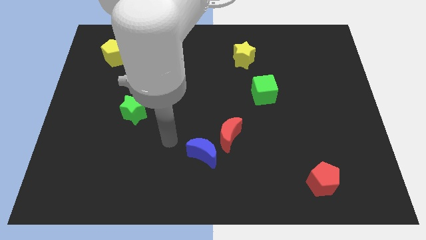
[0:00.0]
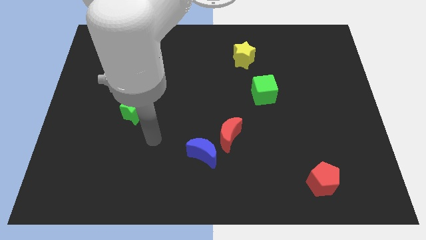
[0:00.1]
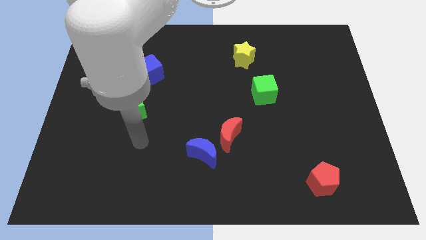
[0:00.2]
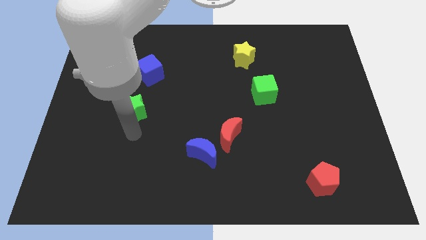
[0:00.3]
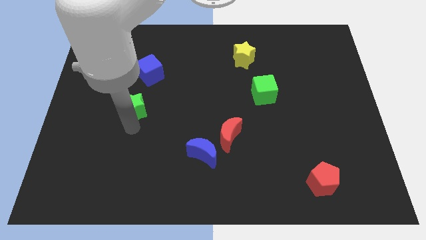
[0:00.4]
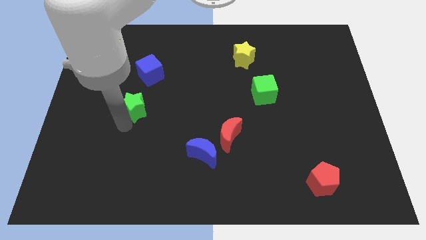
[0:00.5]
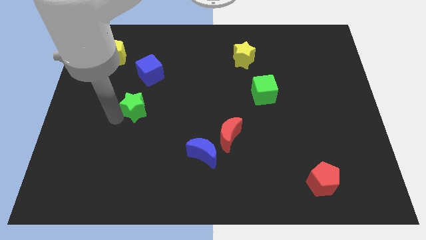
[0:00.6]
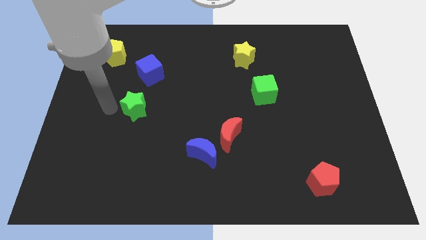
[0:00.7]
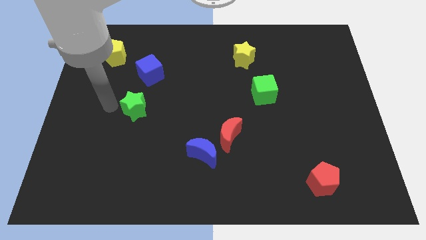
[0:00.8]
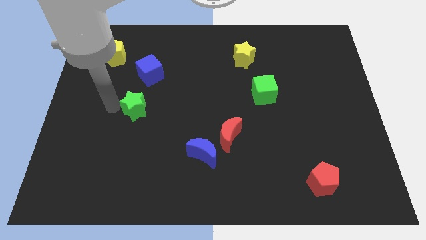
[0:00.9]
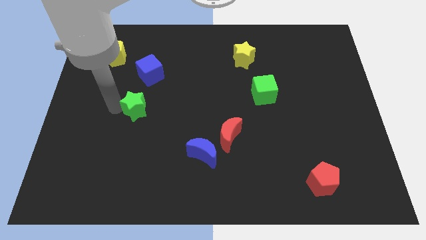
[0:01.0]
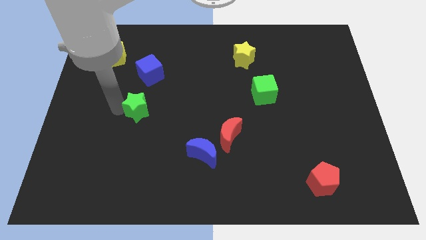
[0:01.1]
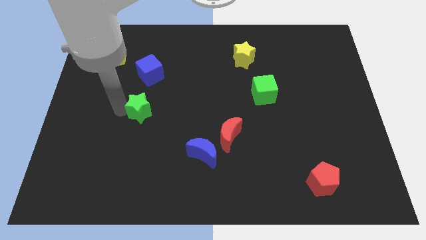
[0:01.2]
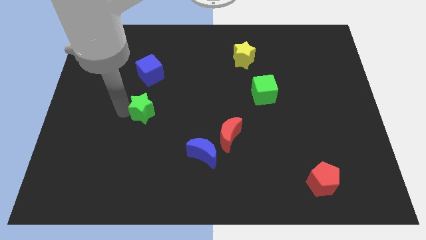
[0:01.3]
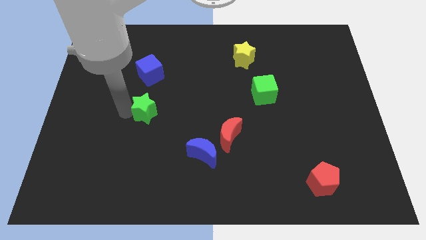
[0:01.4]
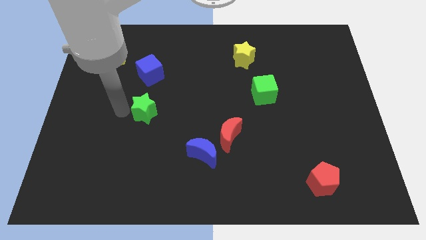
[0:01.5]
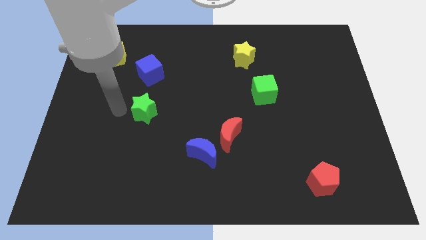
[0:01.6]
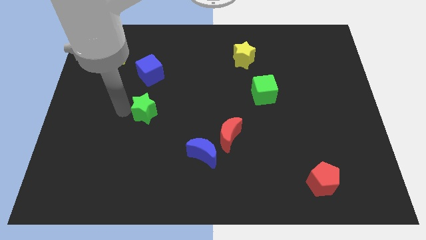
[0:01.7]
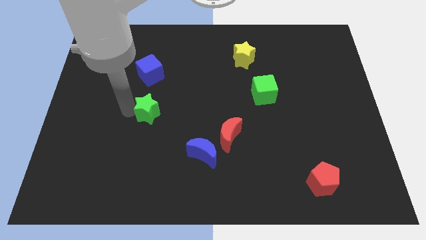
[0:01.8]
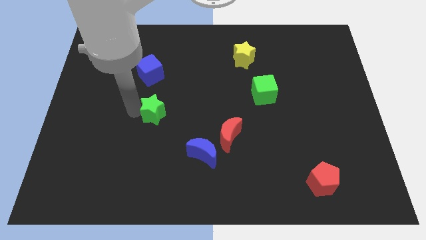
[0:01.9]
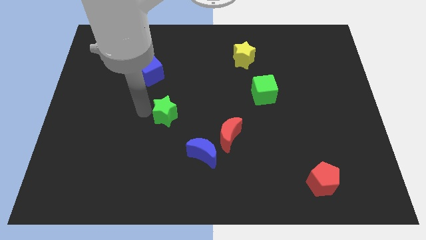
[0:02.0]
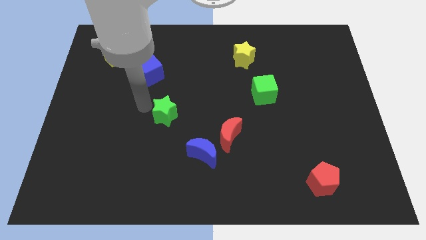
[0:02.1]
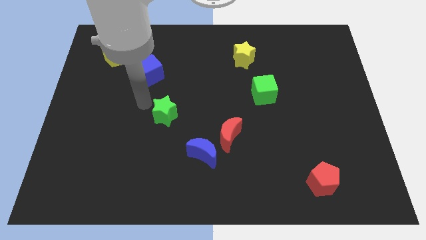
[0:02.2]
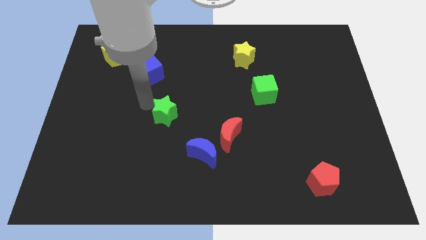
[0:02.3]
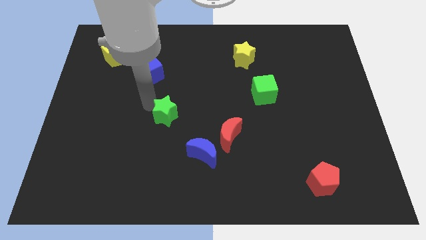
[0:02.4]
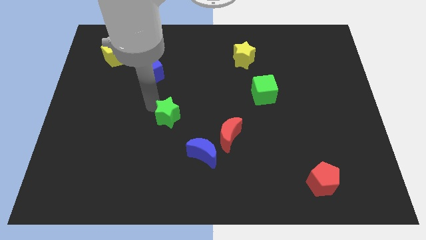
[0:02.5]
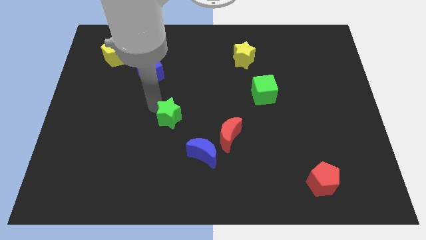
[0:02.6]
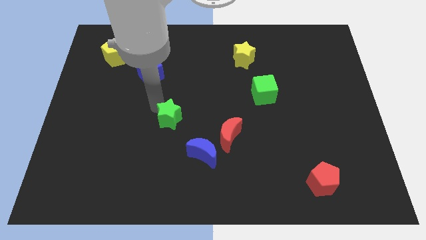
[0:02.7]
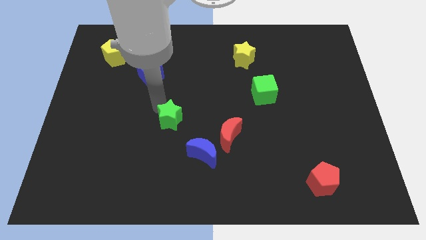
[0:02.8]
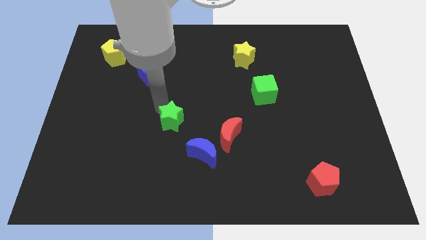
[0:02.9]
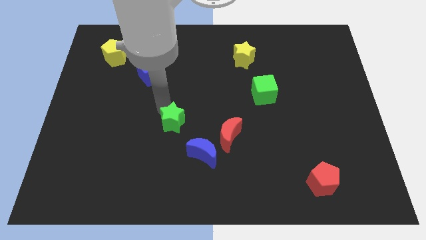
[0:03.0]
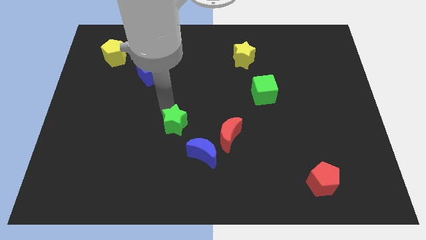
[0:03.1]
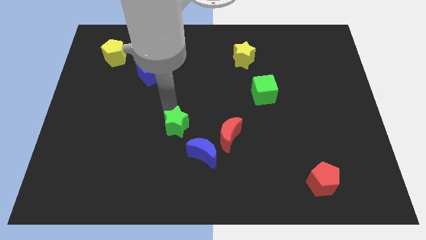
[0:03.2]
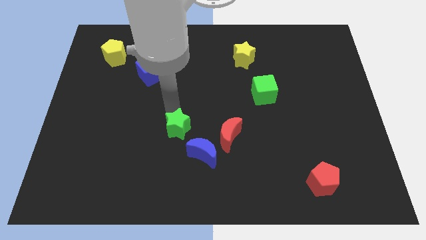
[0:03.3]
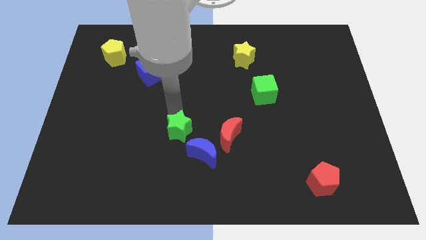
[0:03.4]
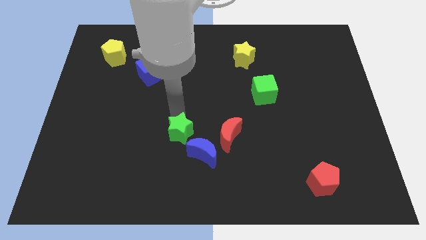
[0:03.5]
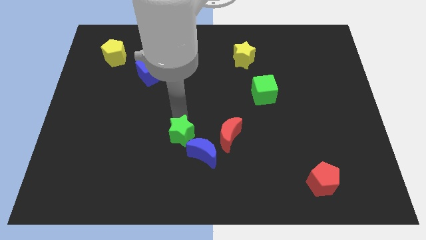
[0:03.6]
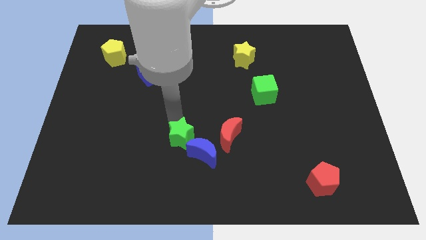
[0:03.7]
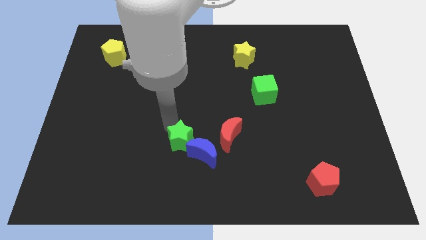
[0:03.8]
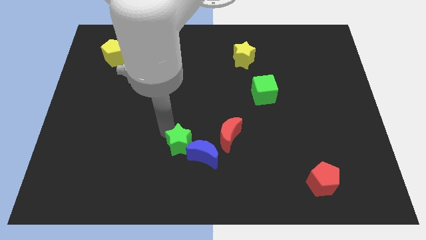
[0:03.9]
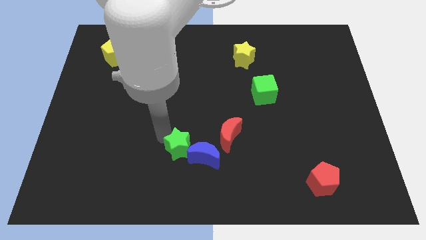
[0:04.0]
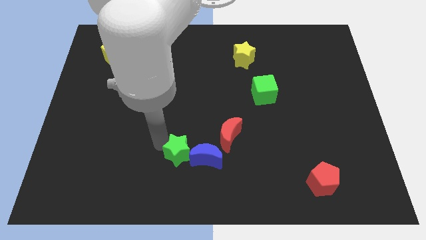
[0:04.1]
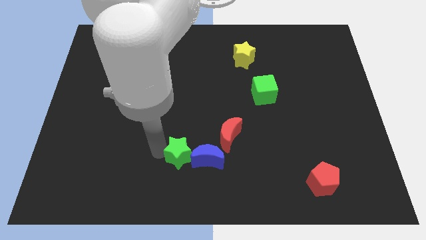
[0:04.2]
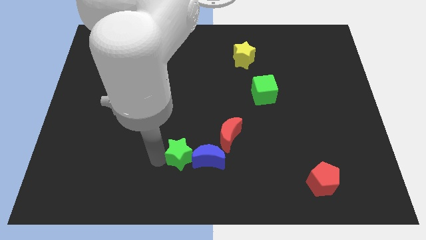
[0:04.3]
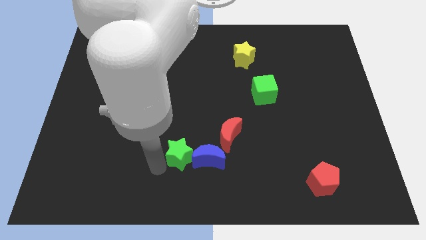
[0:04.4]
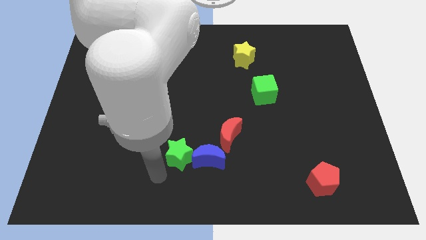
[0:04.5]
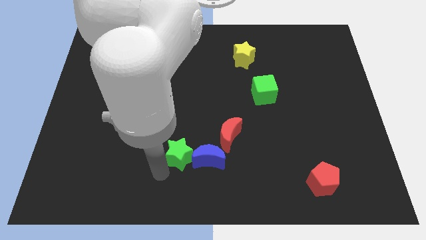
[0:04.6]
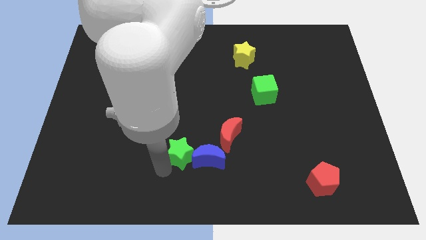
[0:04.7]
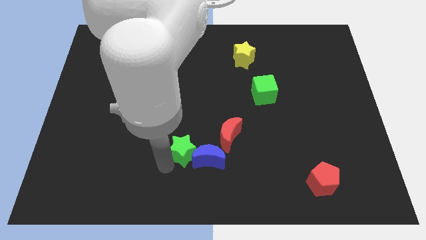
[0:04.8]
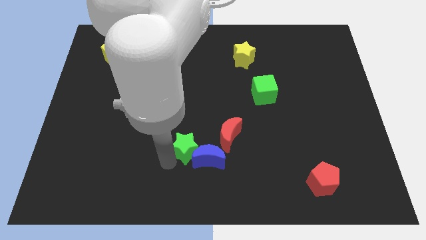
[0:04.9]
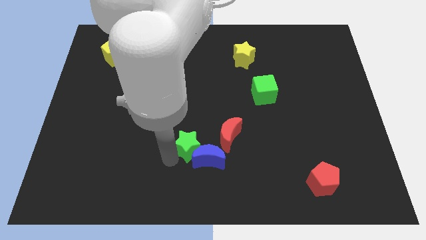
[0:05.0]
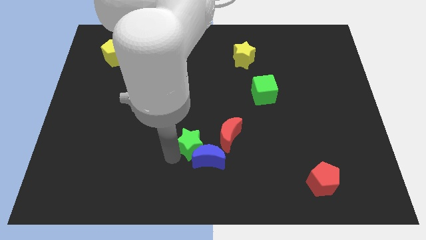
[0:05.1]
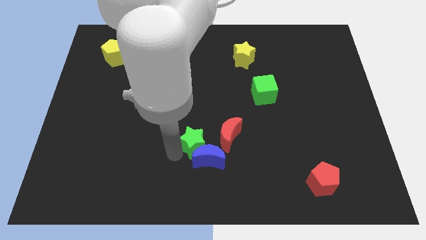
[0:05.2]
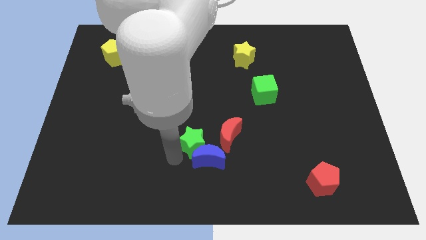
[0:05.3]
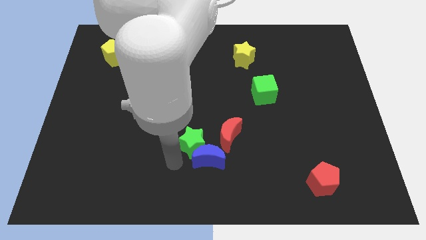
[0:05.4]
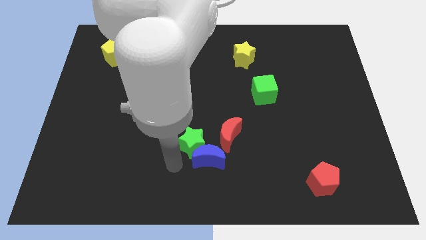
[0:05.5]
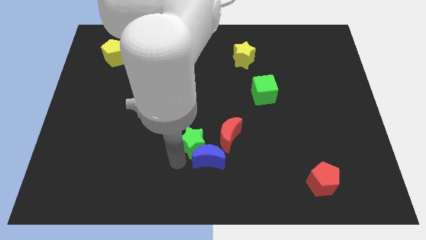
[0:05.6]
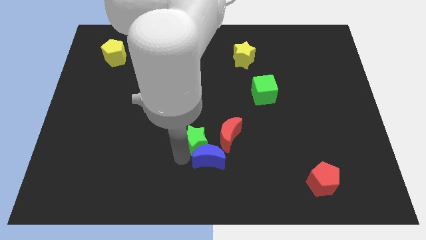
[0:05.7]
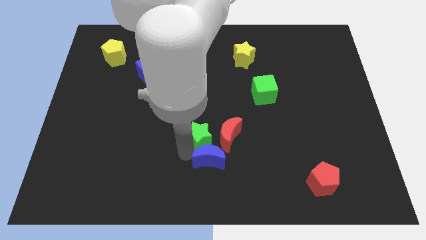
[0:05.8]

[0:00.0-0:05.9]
put the green star to the red moon
